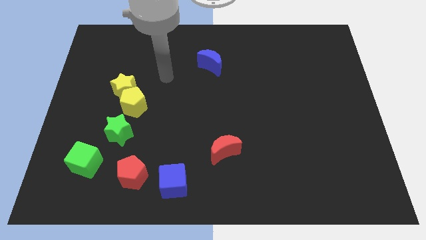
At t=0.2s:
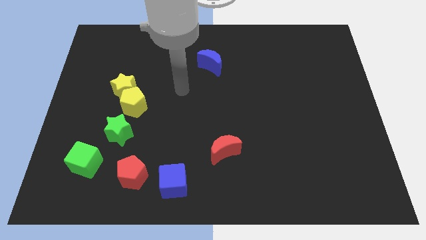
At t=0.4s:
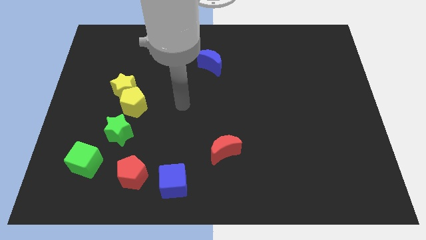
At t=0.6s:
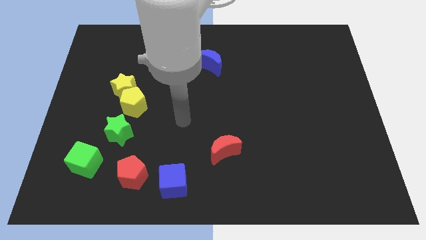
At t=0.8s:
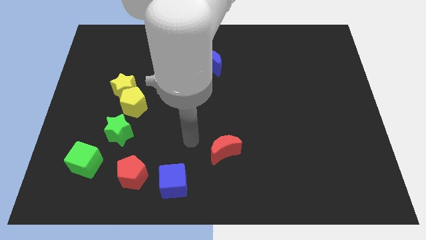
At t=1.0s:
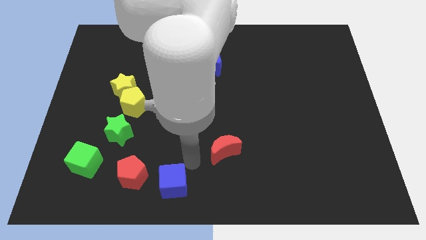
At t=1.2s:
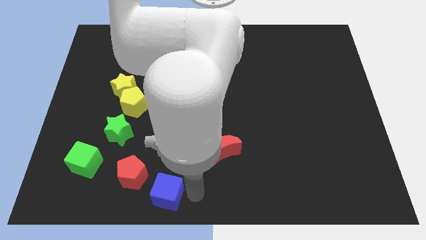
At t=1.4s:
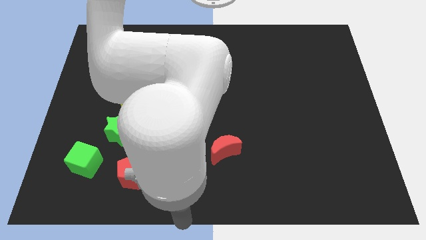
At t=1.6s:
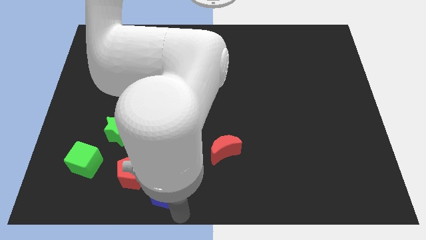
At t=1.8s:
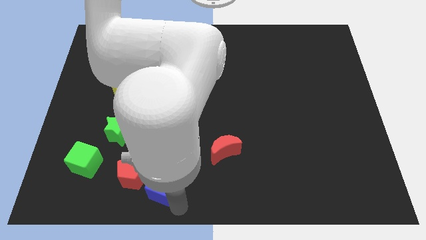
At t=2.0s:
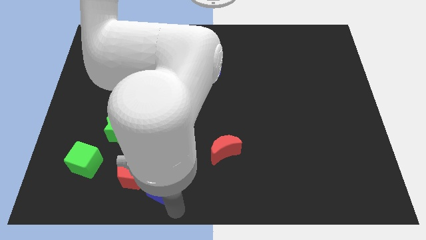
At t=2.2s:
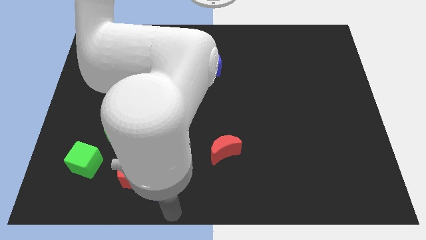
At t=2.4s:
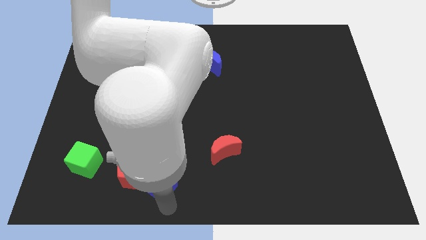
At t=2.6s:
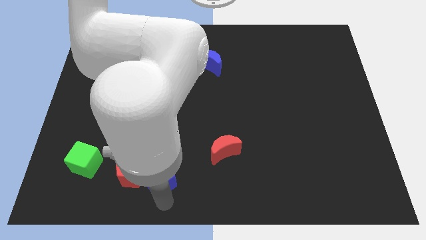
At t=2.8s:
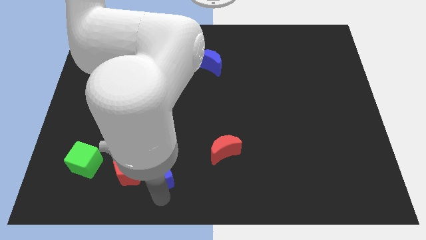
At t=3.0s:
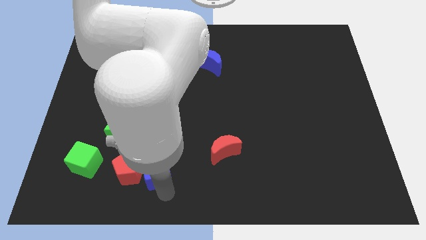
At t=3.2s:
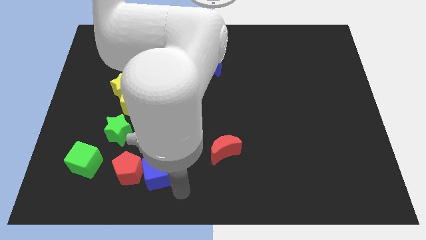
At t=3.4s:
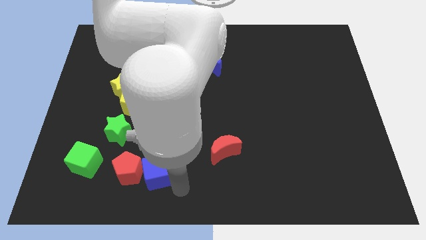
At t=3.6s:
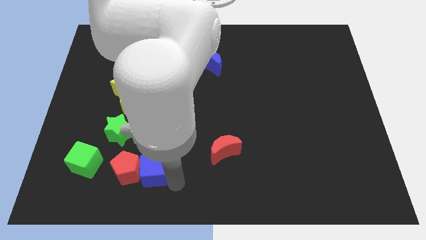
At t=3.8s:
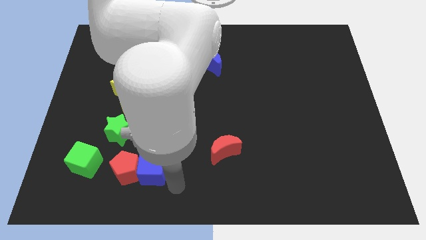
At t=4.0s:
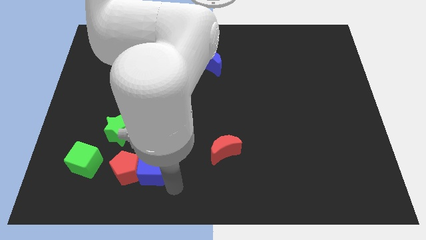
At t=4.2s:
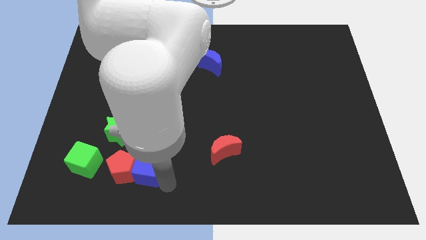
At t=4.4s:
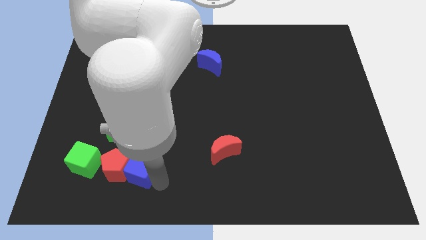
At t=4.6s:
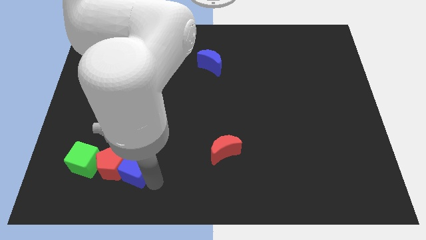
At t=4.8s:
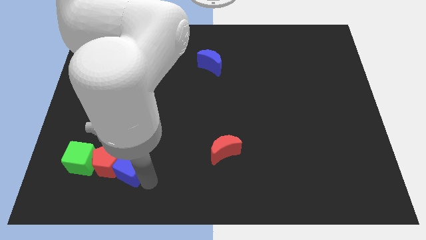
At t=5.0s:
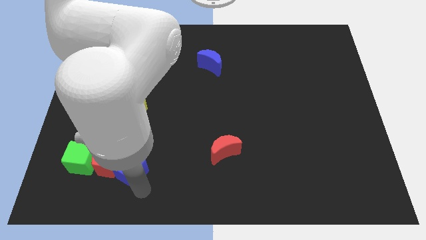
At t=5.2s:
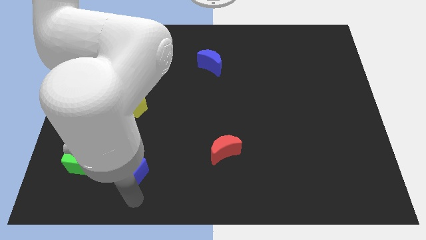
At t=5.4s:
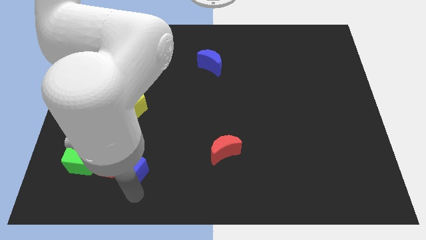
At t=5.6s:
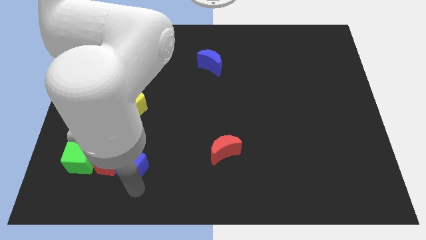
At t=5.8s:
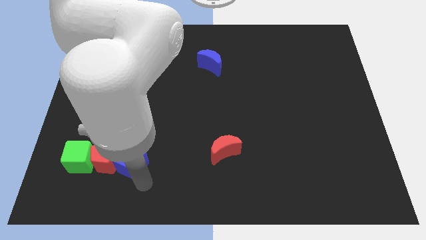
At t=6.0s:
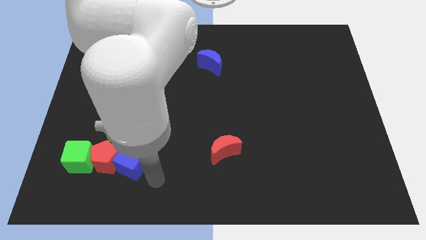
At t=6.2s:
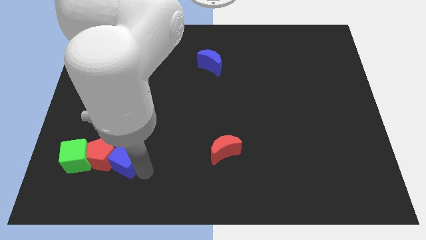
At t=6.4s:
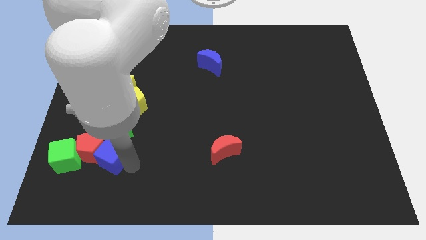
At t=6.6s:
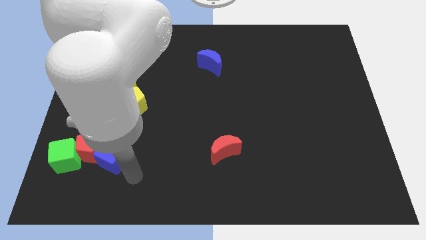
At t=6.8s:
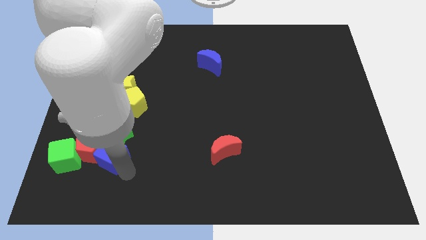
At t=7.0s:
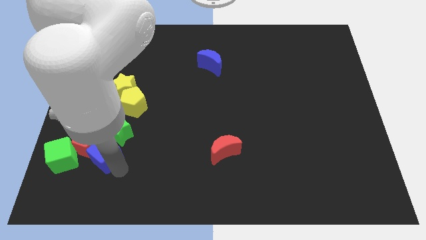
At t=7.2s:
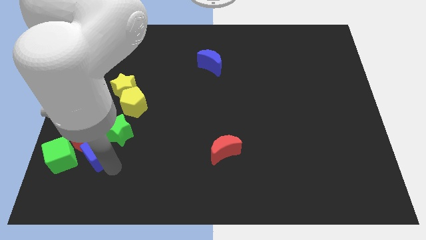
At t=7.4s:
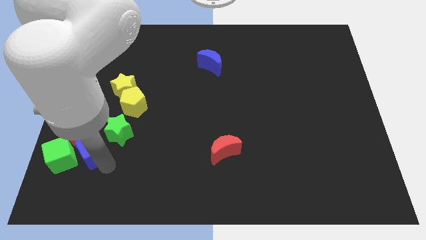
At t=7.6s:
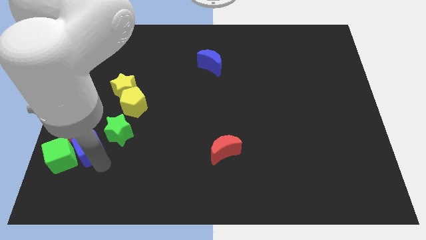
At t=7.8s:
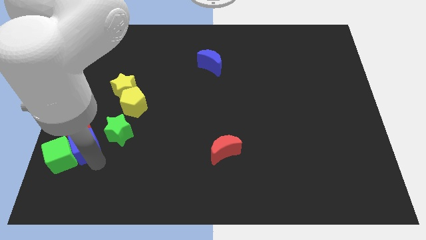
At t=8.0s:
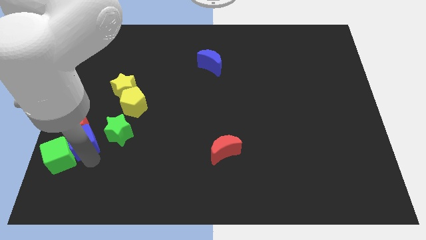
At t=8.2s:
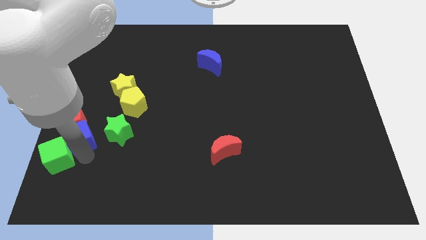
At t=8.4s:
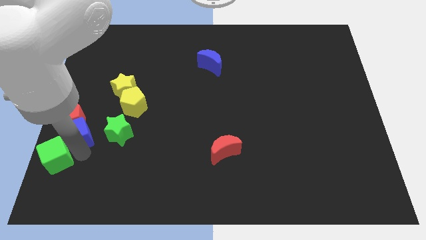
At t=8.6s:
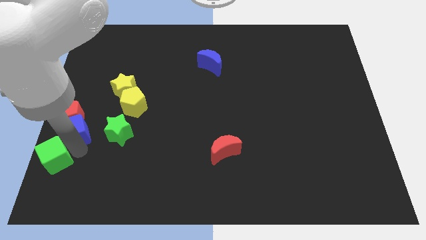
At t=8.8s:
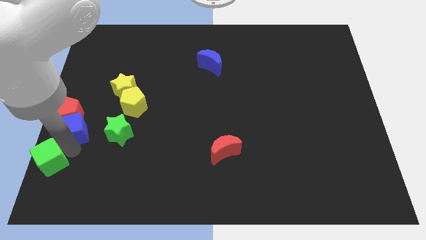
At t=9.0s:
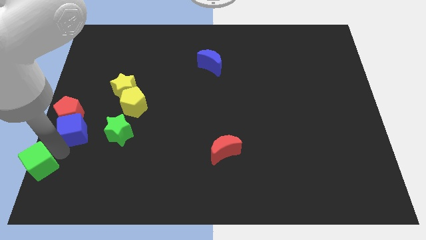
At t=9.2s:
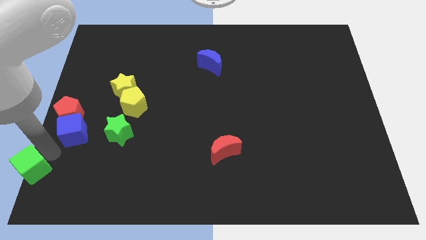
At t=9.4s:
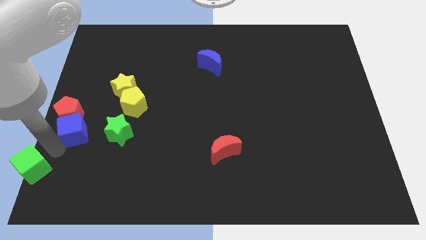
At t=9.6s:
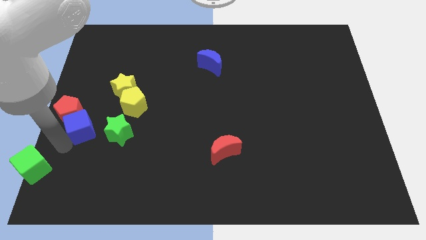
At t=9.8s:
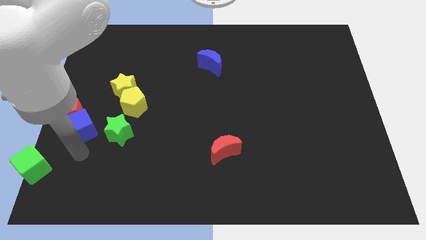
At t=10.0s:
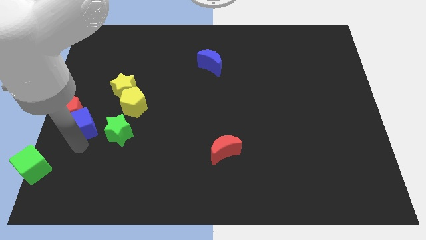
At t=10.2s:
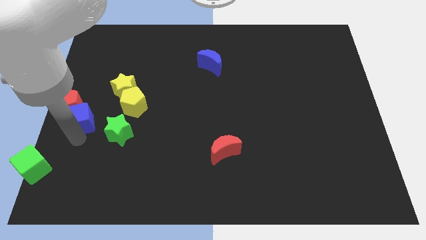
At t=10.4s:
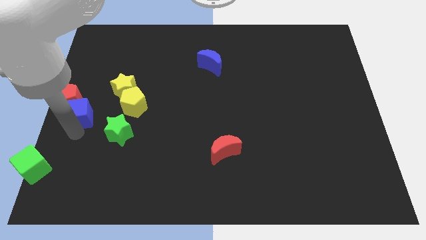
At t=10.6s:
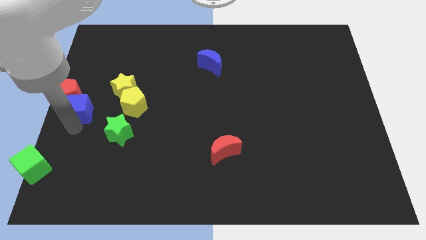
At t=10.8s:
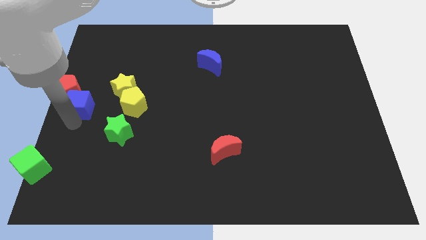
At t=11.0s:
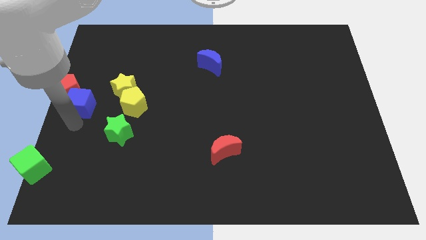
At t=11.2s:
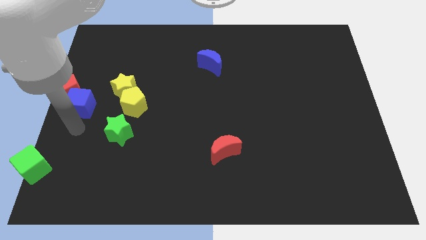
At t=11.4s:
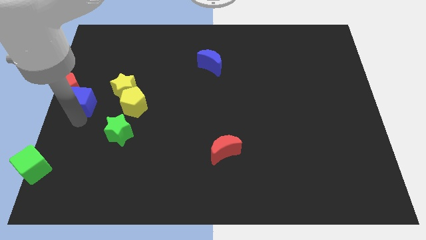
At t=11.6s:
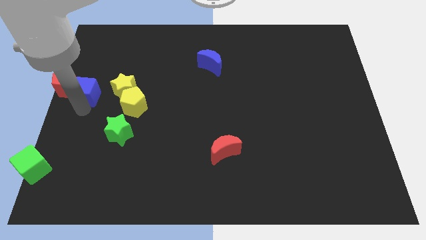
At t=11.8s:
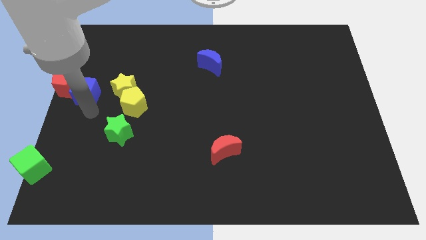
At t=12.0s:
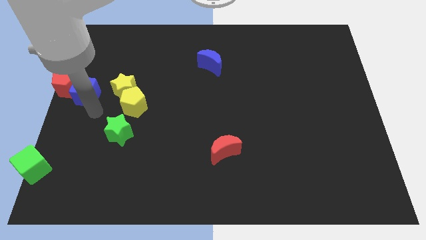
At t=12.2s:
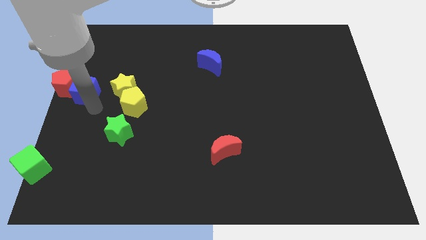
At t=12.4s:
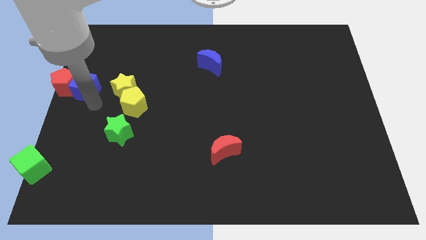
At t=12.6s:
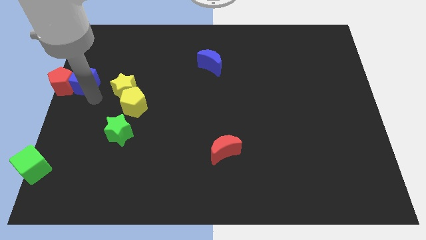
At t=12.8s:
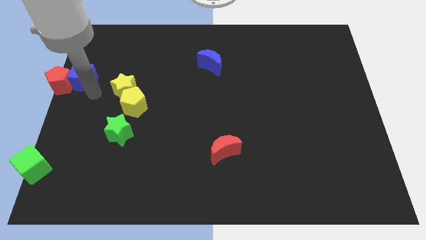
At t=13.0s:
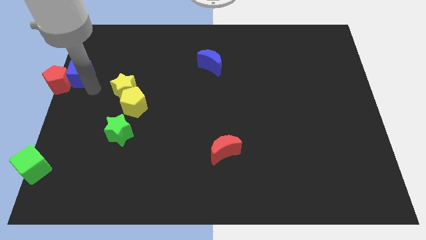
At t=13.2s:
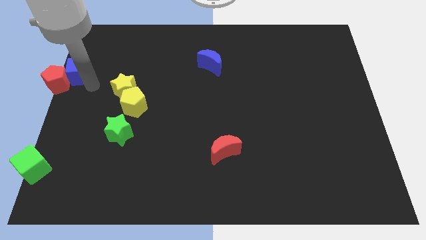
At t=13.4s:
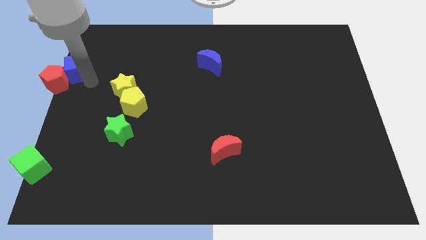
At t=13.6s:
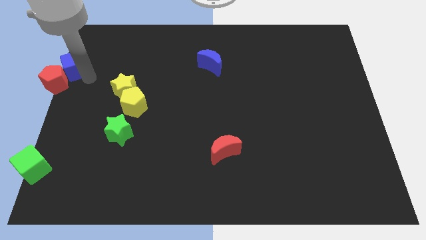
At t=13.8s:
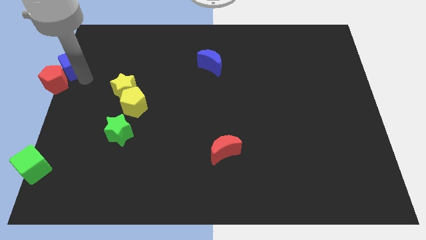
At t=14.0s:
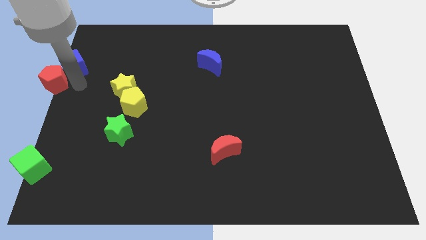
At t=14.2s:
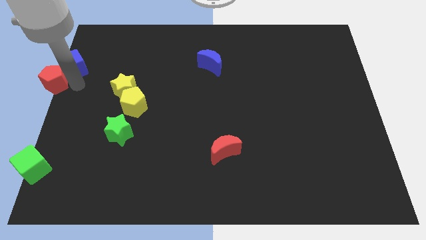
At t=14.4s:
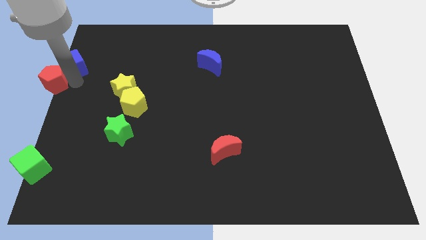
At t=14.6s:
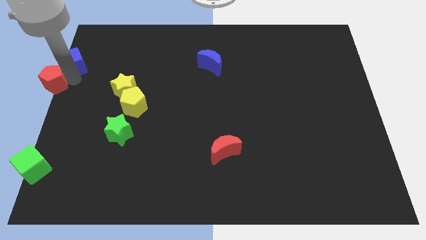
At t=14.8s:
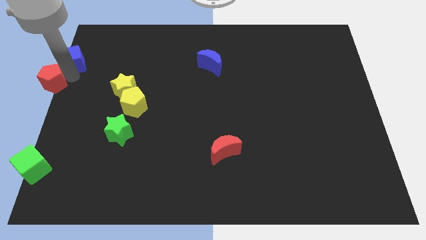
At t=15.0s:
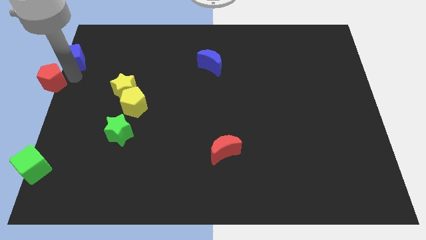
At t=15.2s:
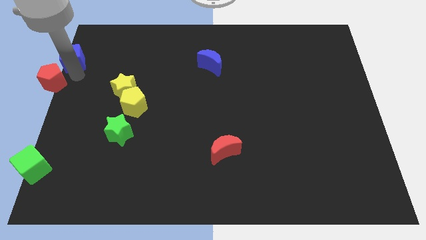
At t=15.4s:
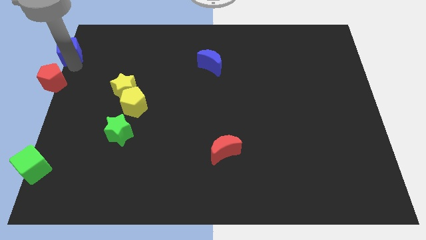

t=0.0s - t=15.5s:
slide the blue cube to the top left of the board
